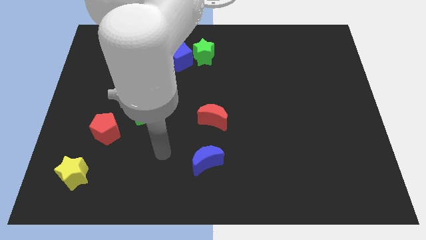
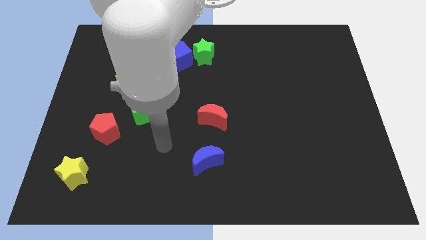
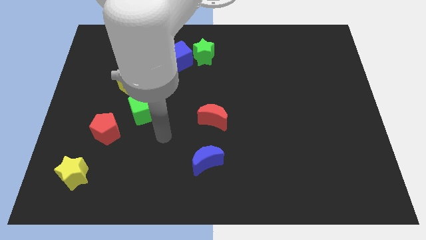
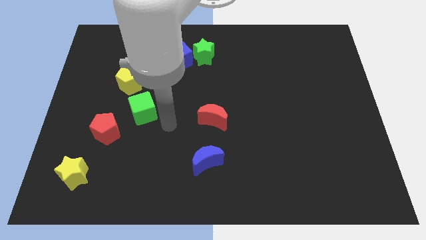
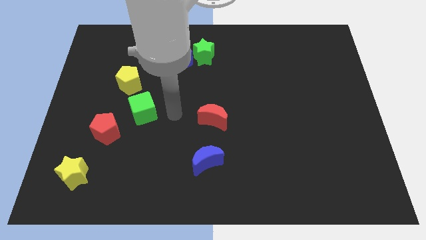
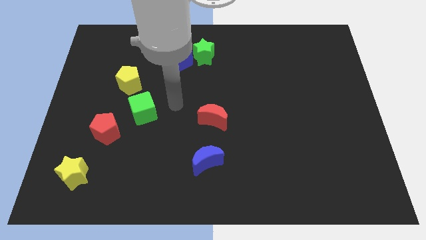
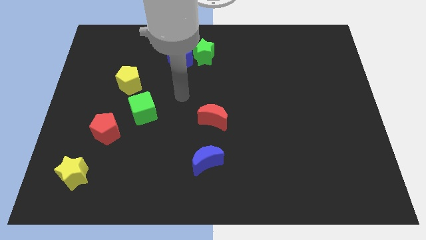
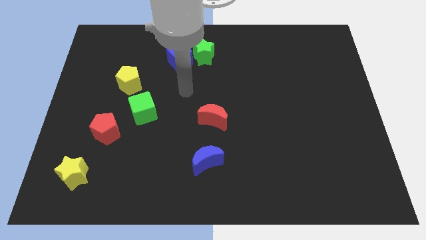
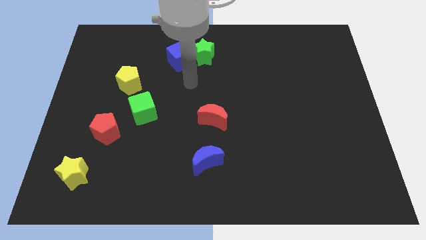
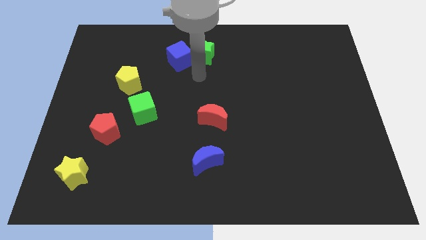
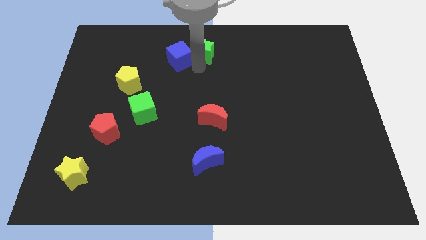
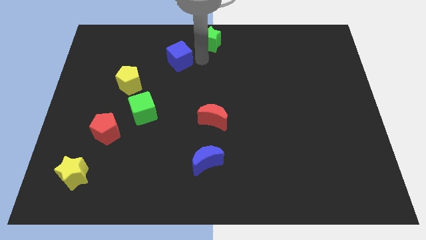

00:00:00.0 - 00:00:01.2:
move the blue cube away from the green star

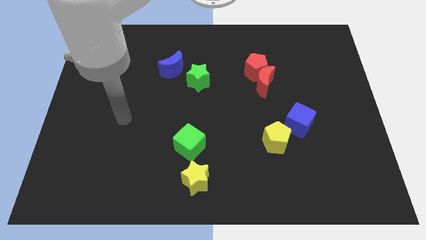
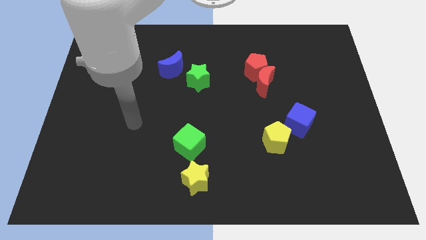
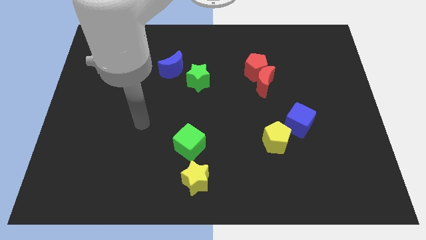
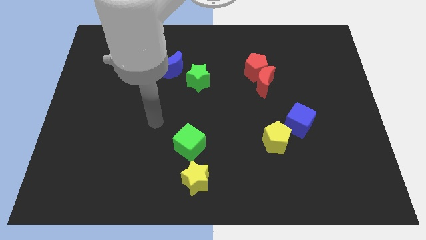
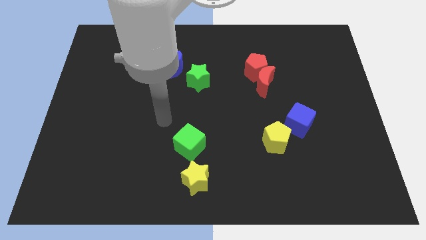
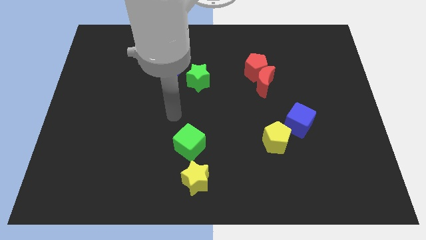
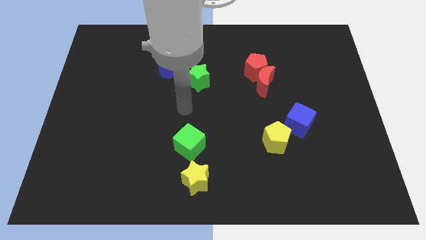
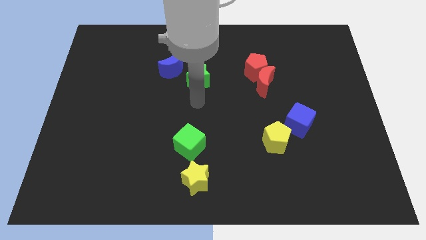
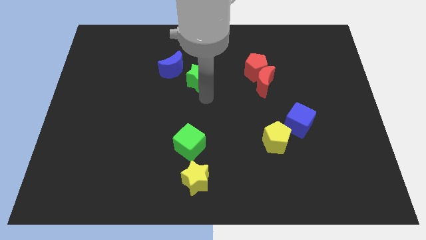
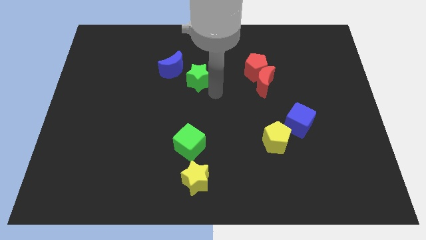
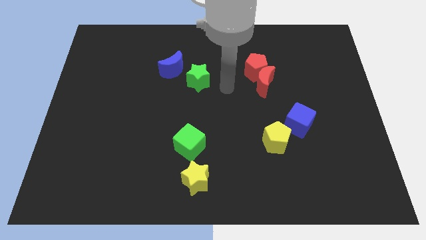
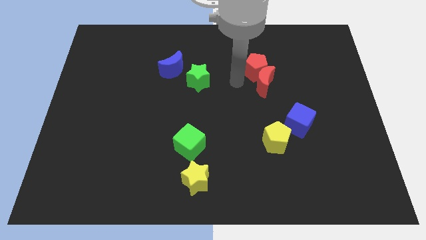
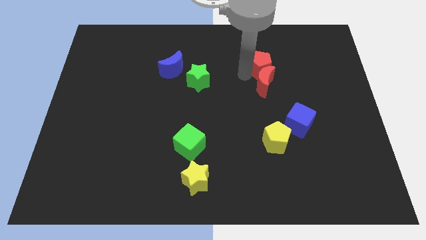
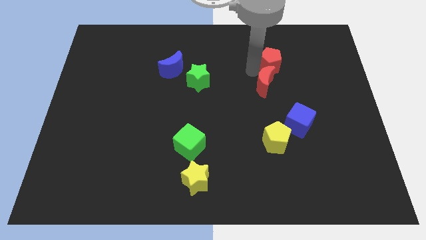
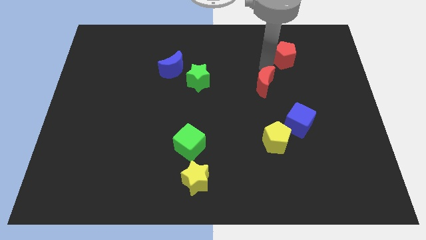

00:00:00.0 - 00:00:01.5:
move the red moon away from the red pentagon

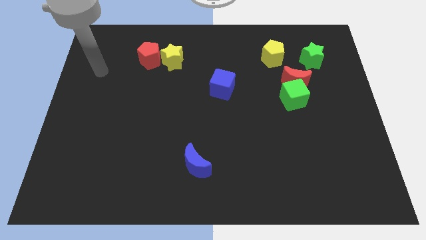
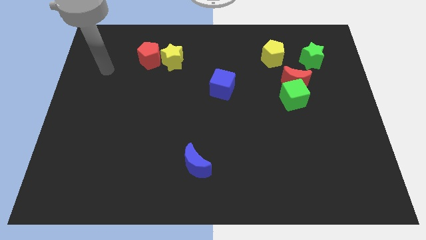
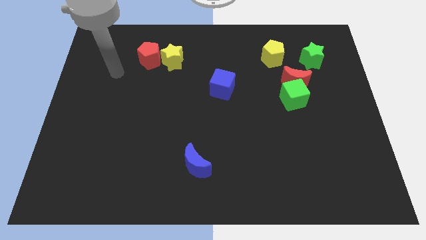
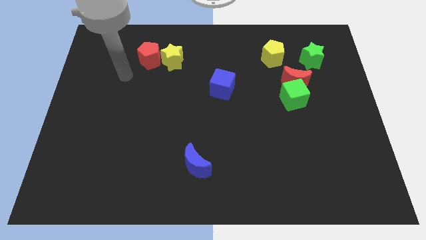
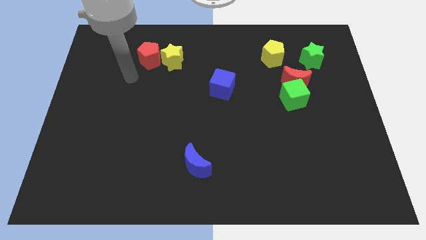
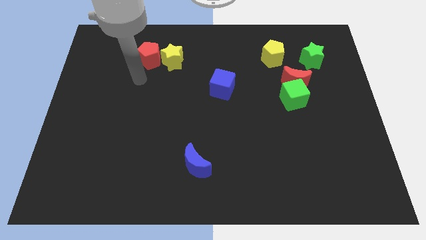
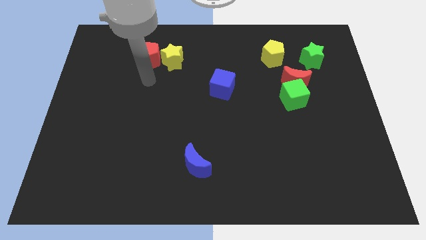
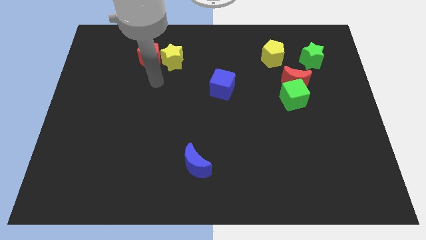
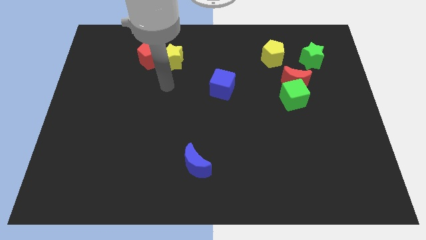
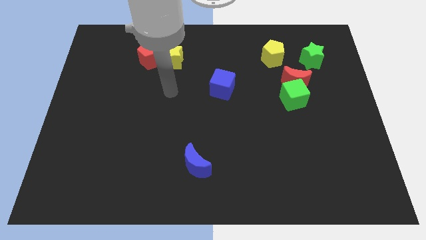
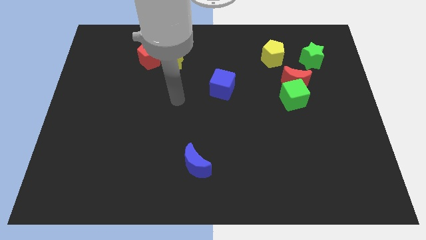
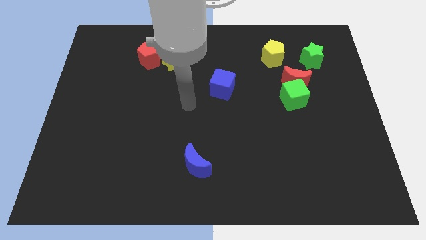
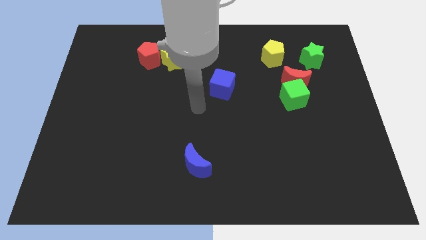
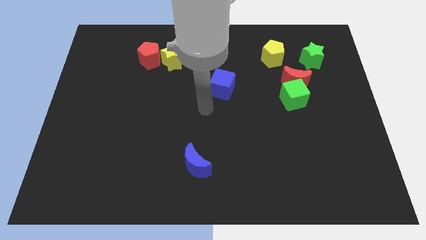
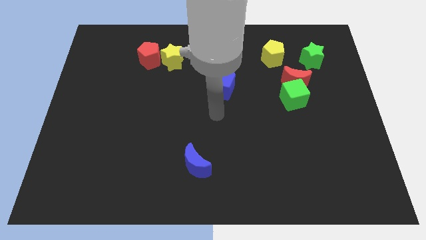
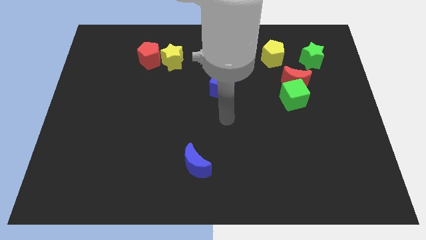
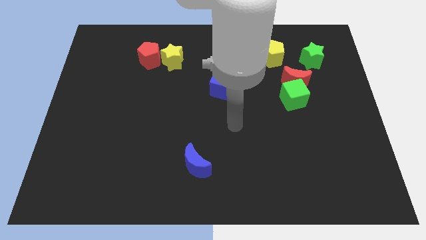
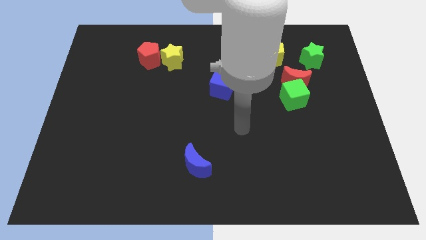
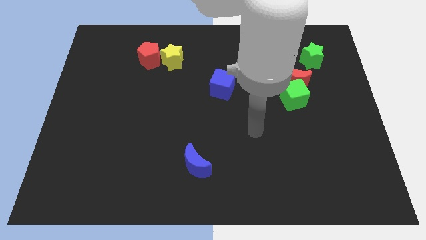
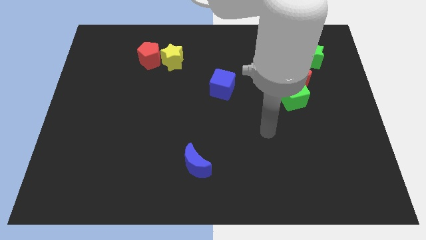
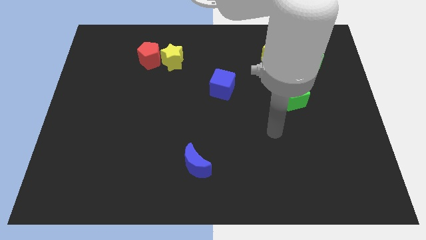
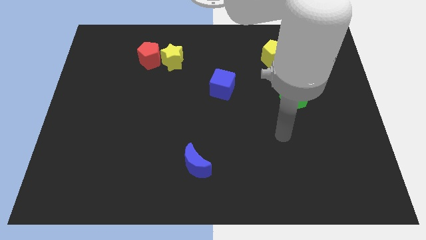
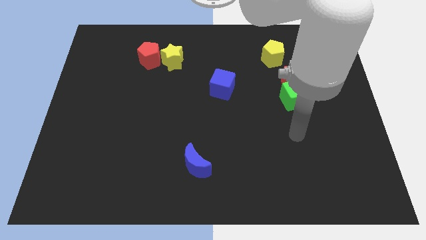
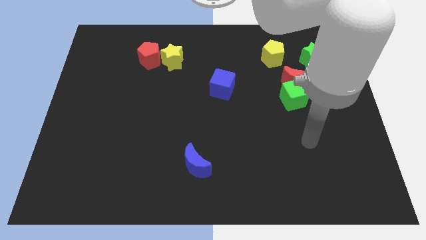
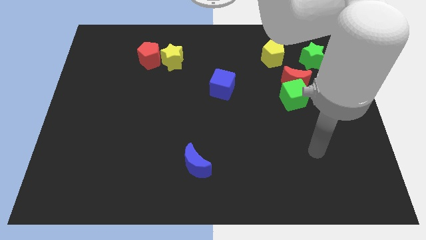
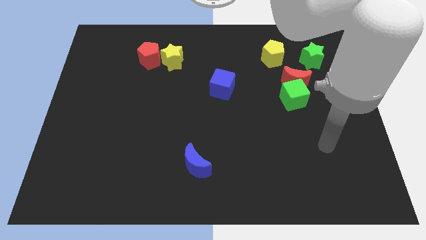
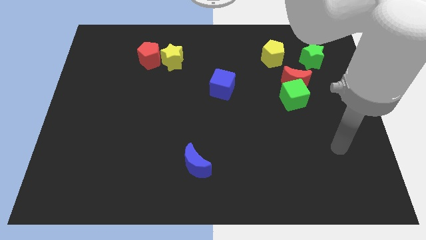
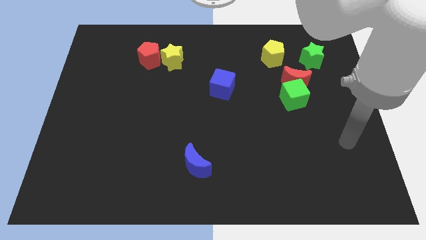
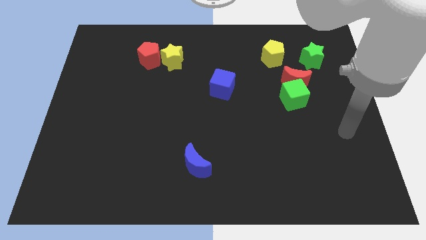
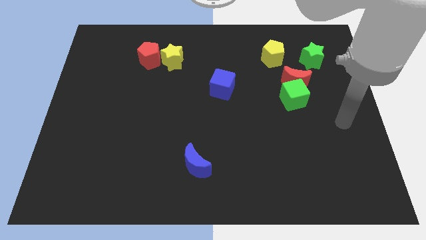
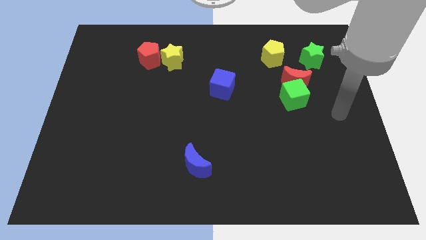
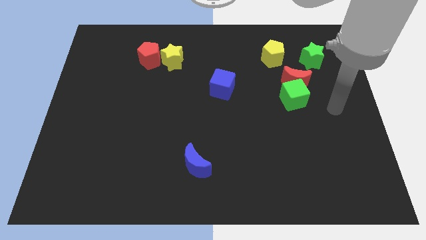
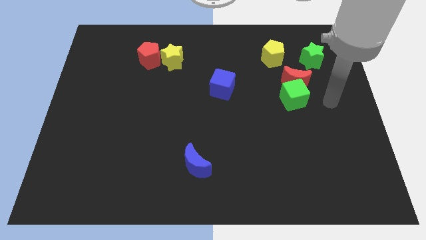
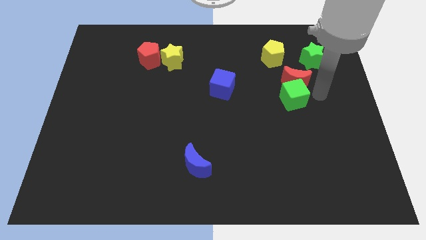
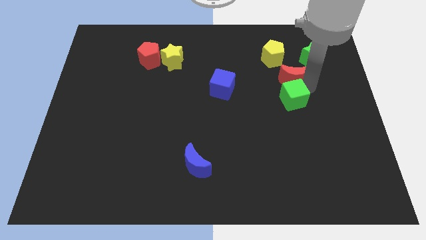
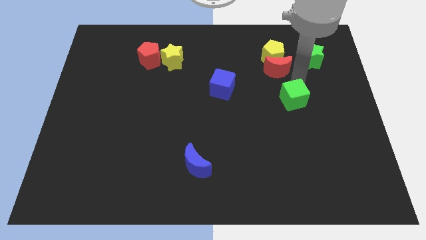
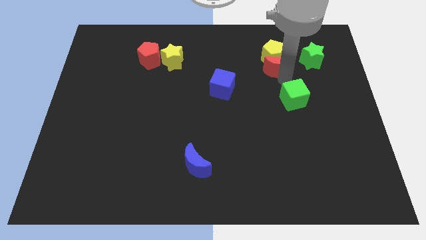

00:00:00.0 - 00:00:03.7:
separate the green cube from the red moon

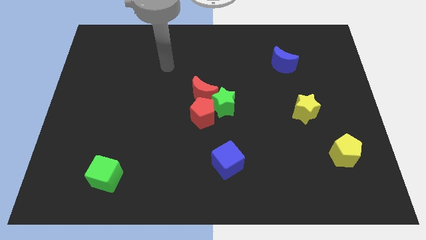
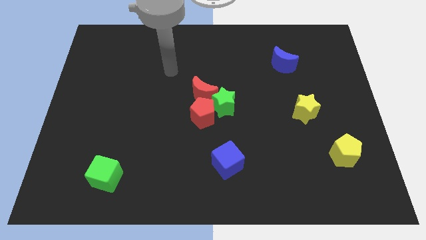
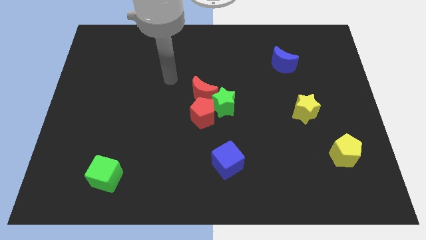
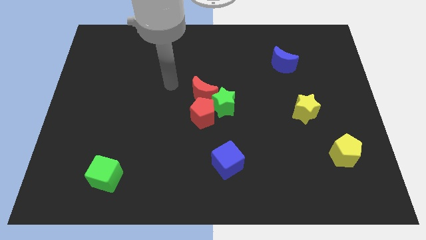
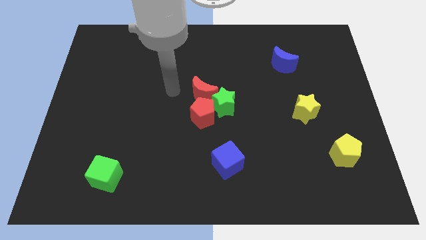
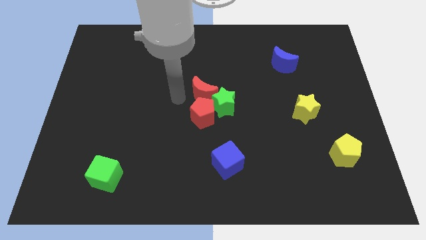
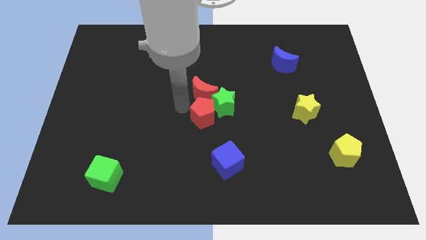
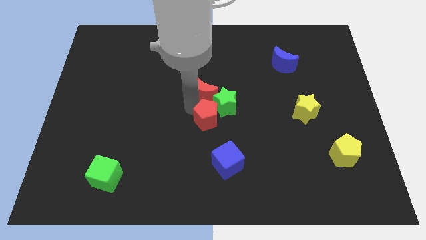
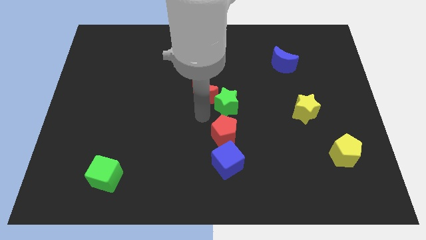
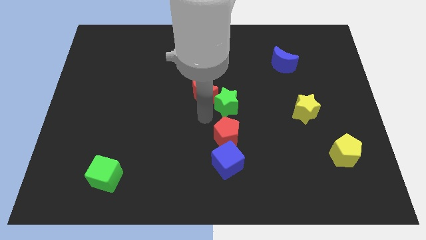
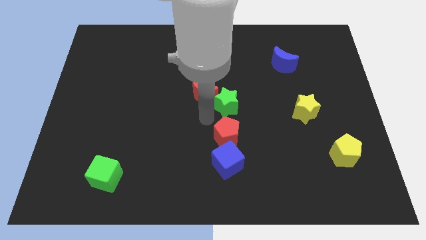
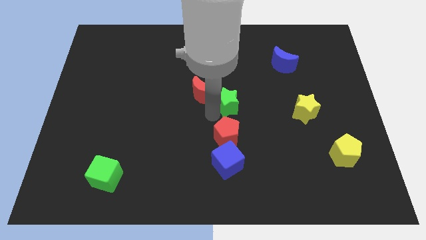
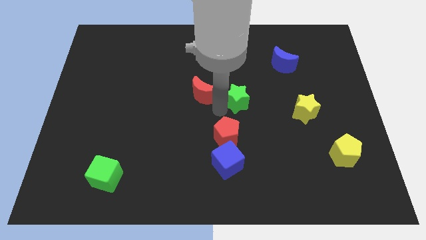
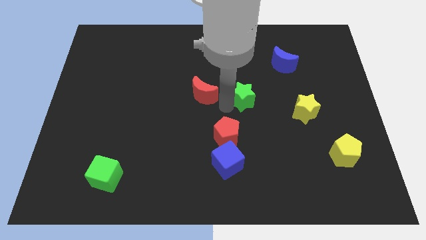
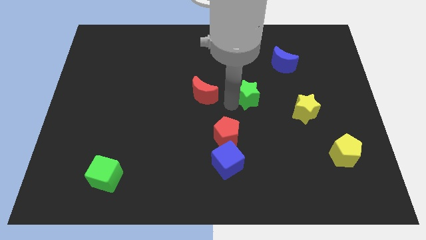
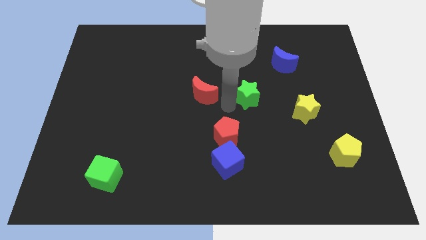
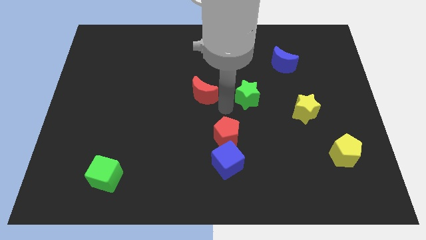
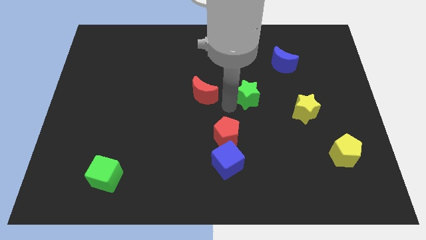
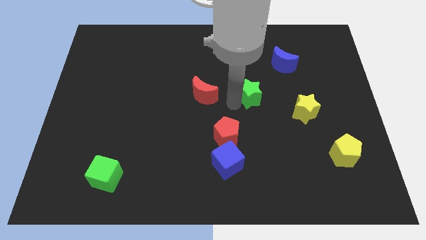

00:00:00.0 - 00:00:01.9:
move the green star away from the red pentagon and red moon

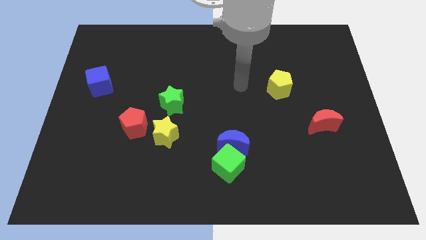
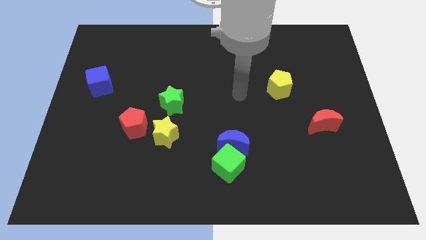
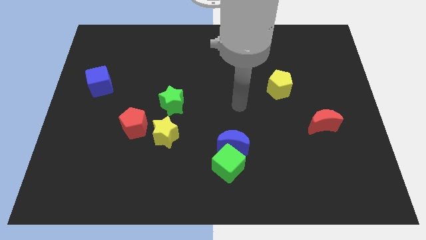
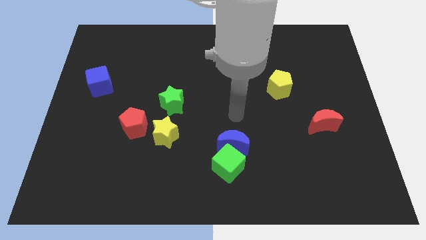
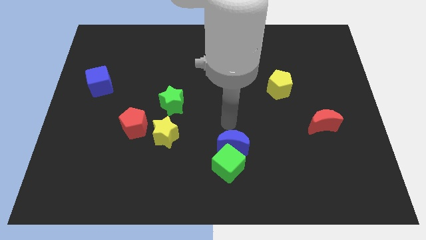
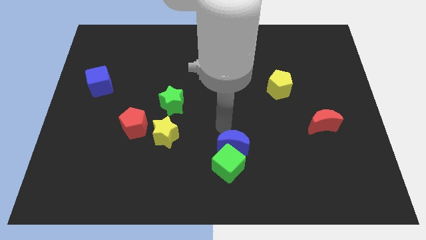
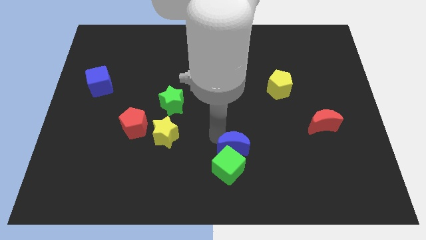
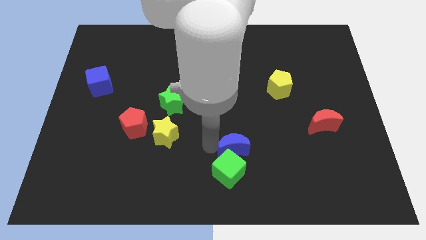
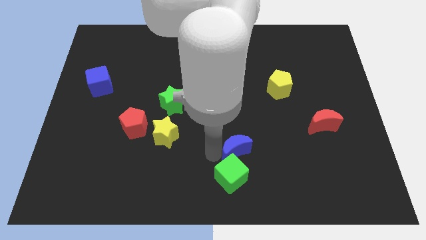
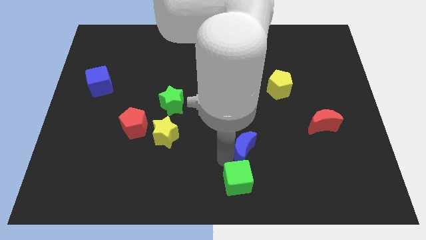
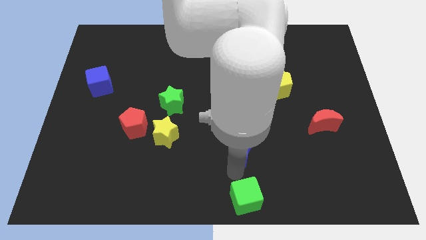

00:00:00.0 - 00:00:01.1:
separate the blue moon from the green cube
